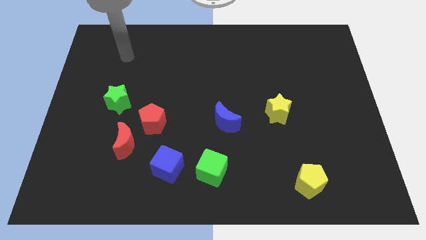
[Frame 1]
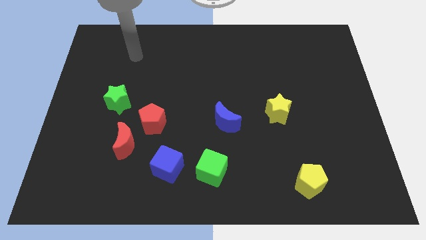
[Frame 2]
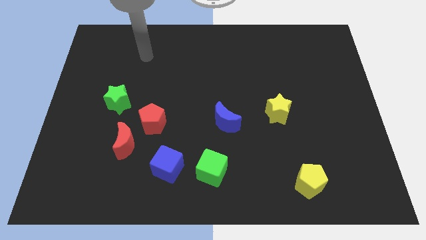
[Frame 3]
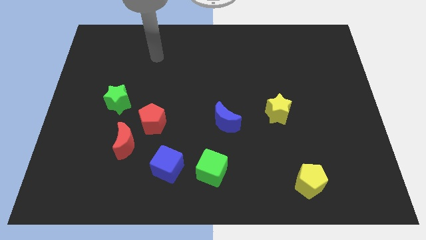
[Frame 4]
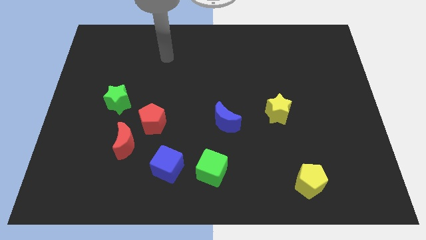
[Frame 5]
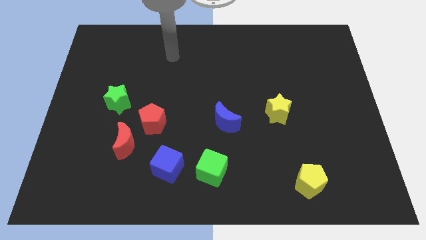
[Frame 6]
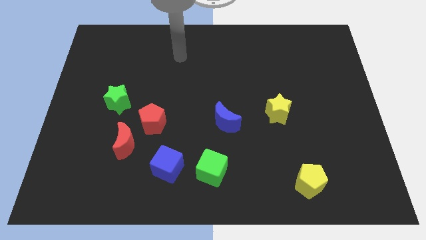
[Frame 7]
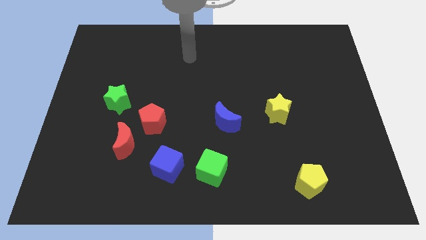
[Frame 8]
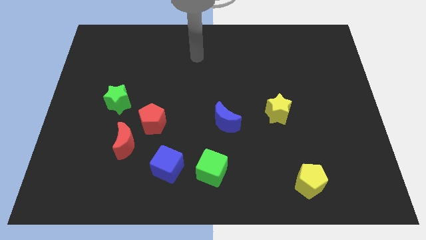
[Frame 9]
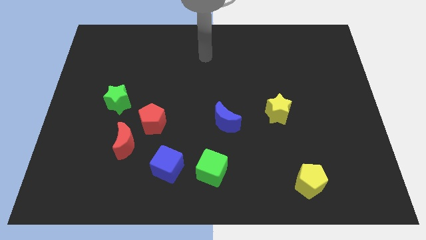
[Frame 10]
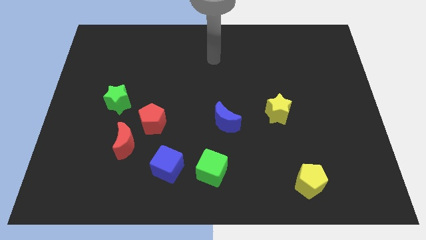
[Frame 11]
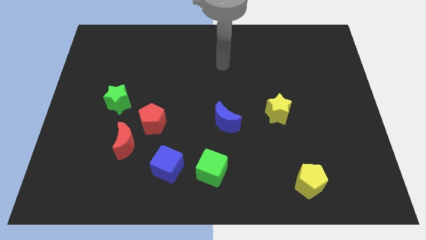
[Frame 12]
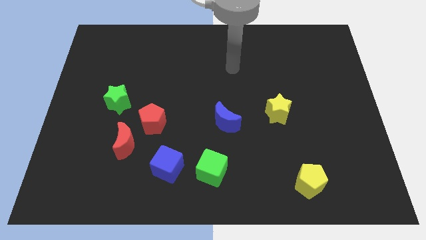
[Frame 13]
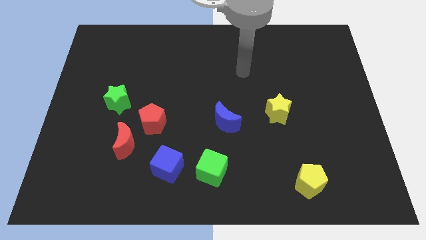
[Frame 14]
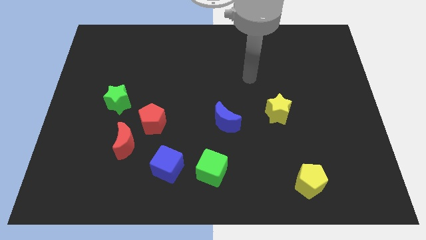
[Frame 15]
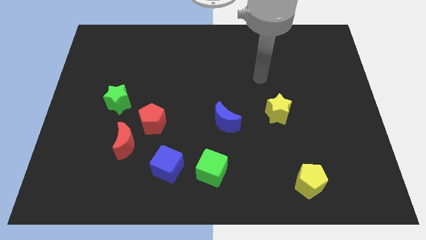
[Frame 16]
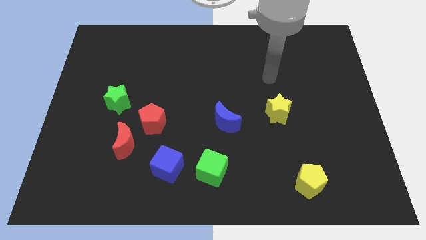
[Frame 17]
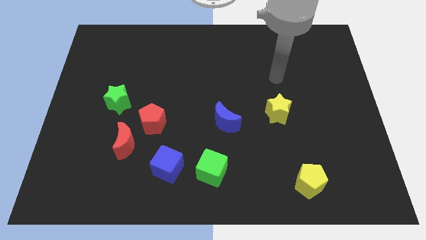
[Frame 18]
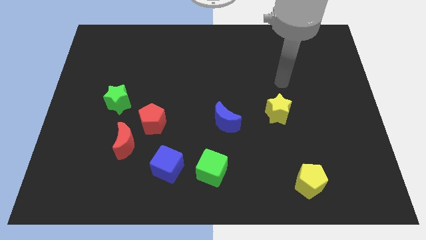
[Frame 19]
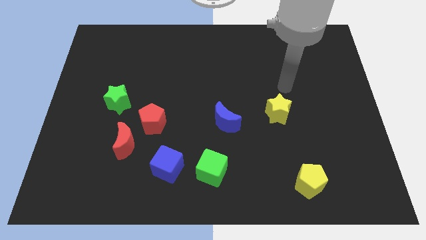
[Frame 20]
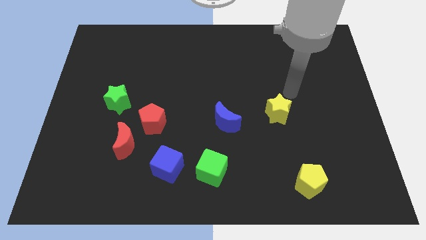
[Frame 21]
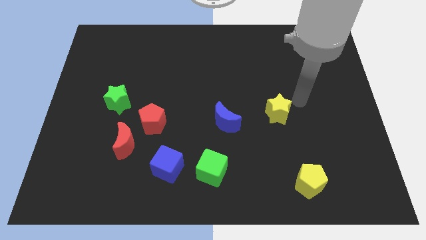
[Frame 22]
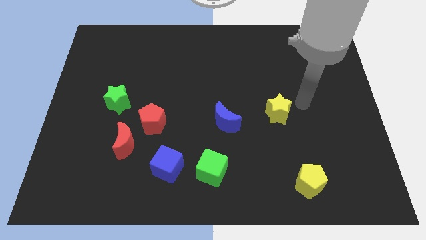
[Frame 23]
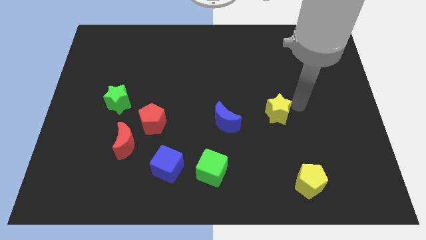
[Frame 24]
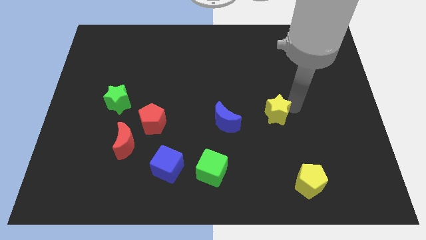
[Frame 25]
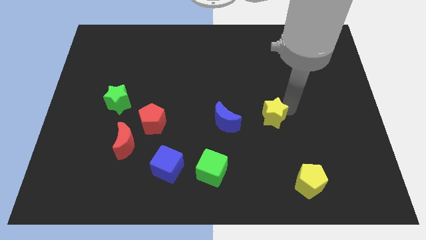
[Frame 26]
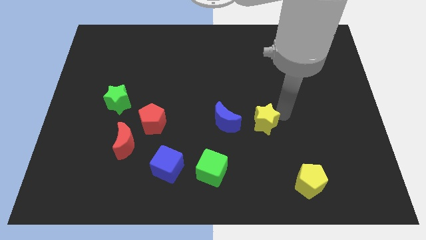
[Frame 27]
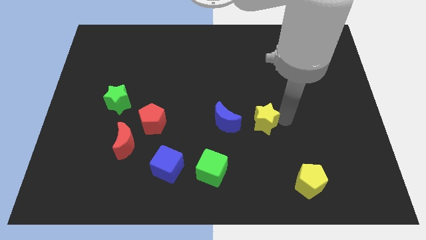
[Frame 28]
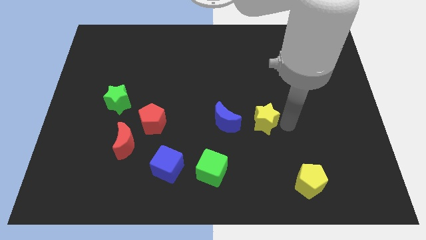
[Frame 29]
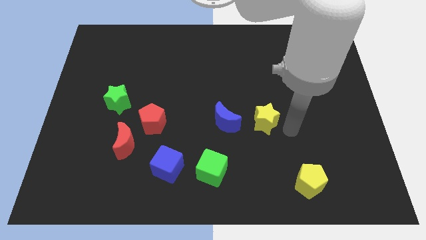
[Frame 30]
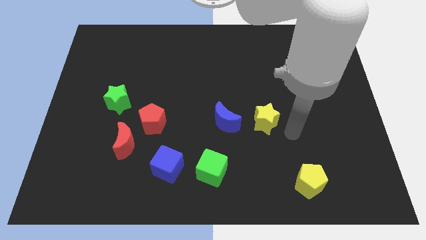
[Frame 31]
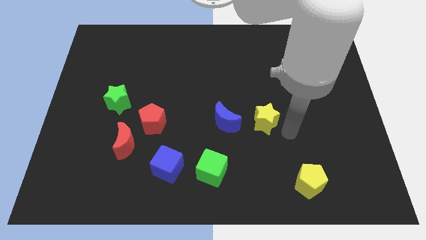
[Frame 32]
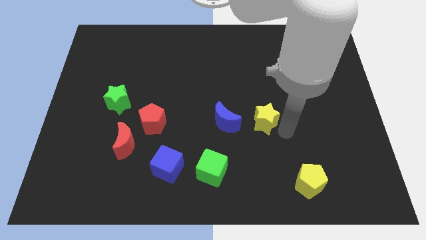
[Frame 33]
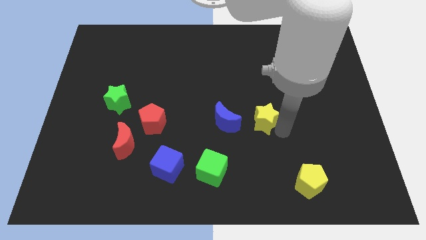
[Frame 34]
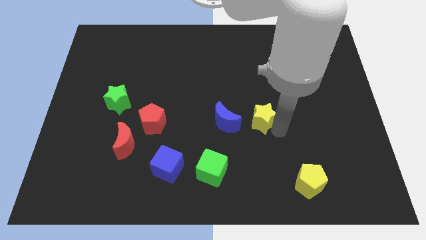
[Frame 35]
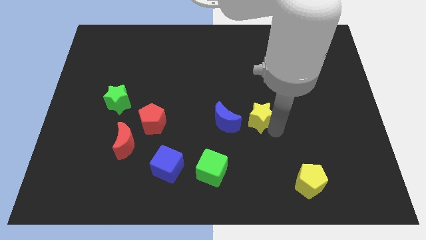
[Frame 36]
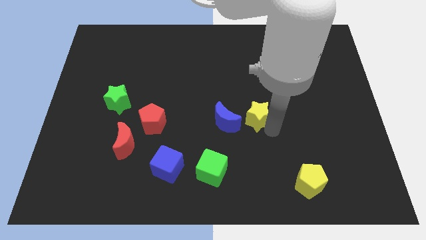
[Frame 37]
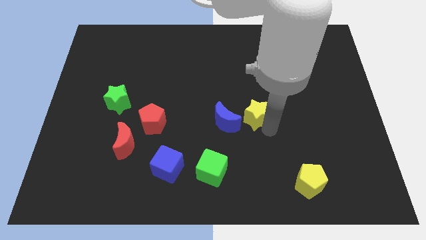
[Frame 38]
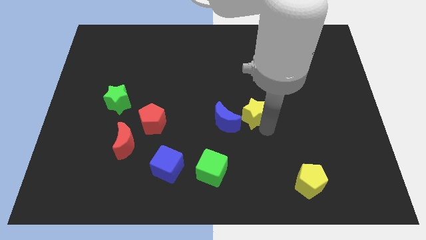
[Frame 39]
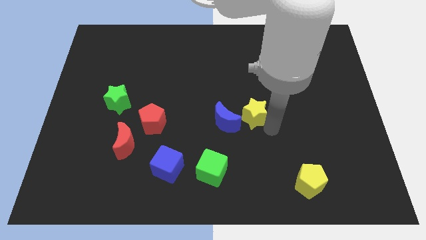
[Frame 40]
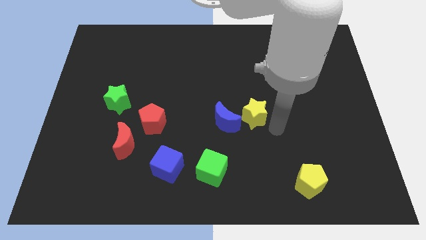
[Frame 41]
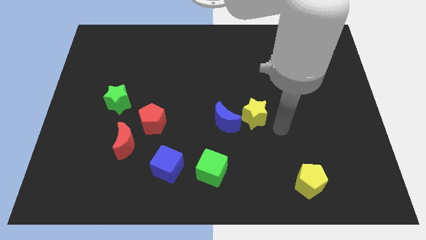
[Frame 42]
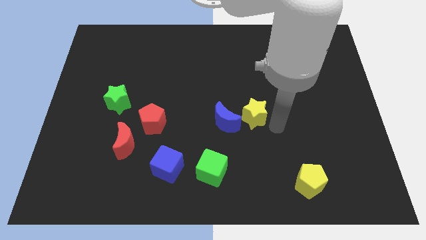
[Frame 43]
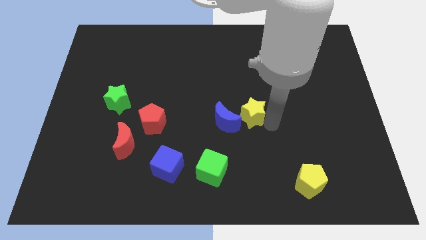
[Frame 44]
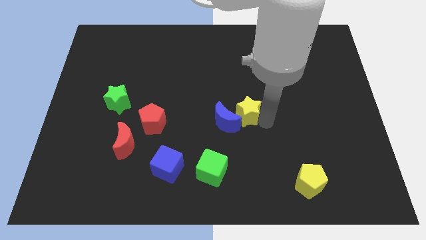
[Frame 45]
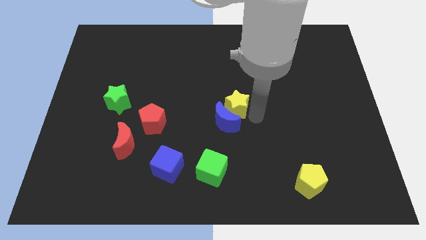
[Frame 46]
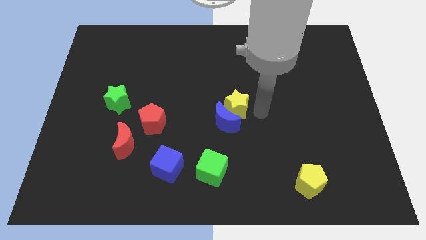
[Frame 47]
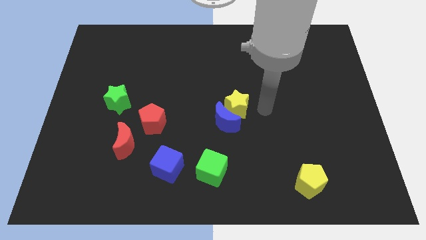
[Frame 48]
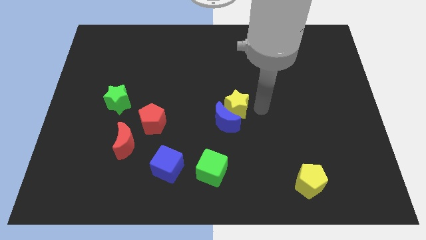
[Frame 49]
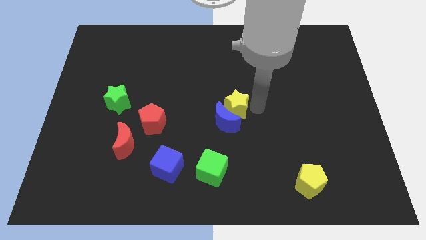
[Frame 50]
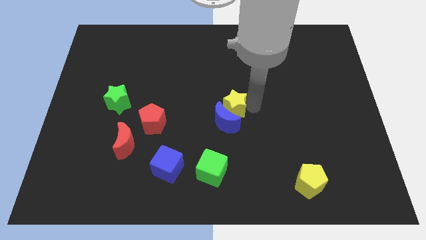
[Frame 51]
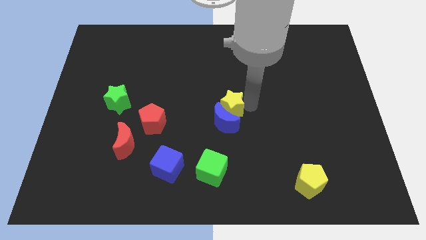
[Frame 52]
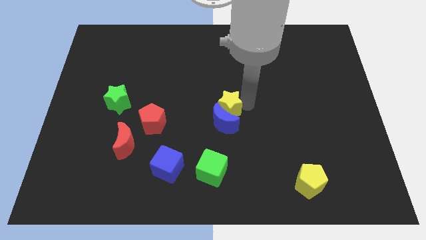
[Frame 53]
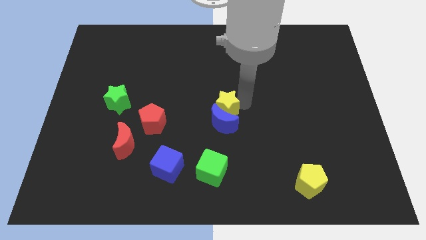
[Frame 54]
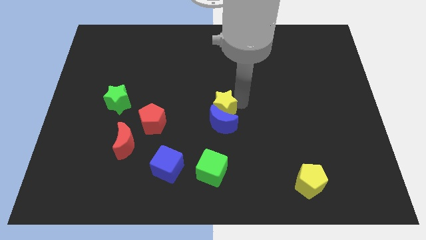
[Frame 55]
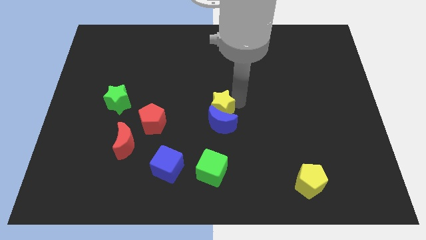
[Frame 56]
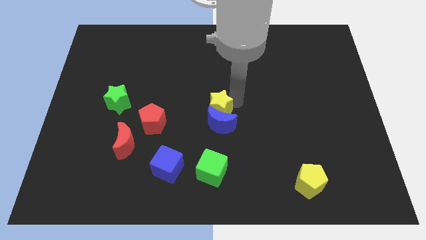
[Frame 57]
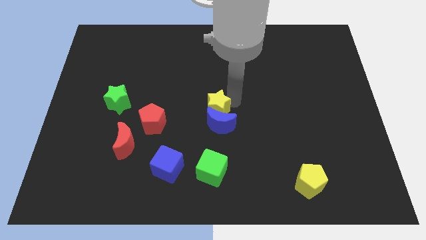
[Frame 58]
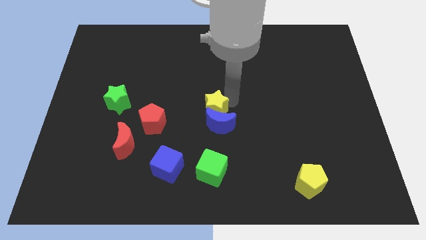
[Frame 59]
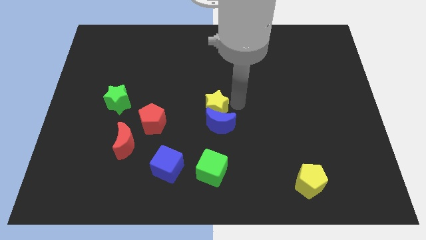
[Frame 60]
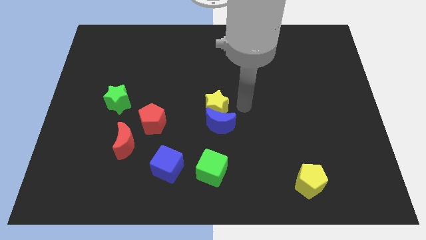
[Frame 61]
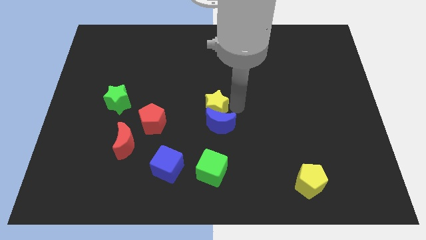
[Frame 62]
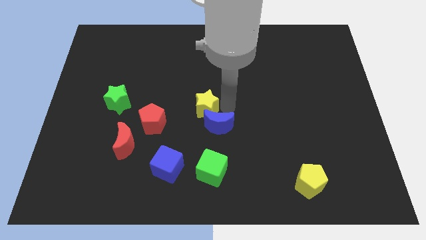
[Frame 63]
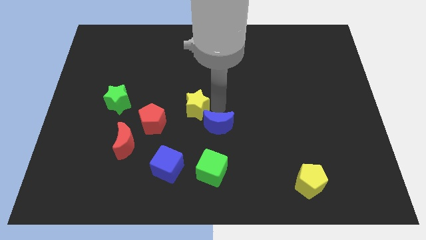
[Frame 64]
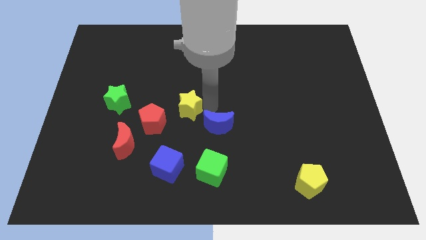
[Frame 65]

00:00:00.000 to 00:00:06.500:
push the yellow star to the left

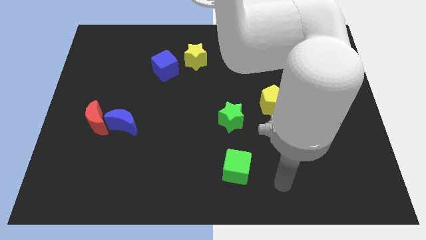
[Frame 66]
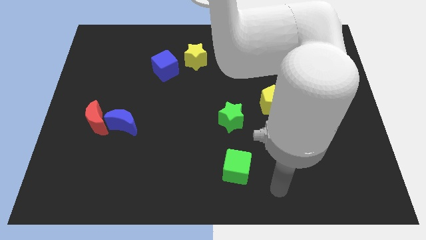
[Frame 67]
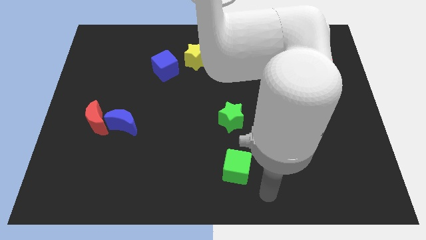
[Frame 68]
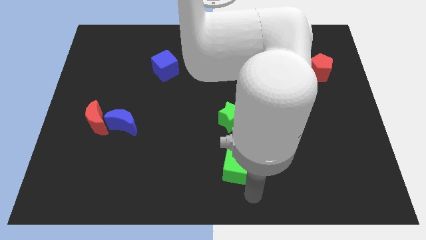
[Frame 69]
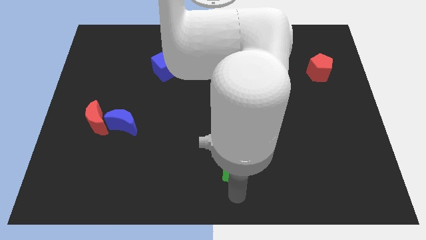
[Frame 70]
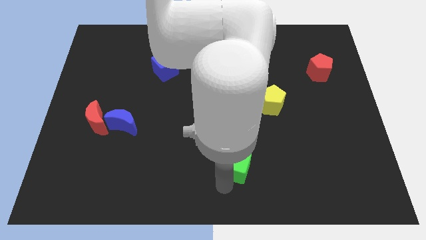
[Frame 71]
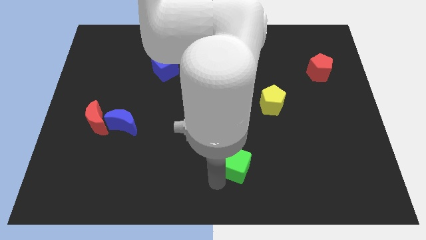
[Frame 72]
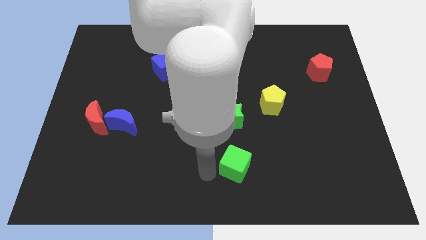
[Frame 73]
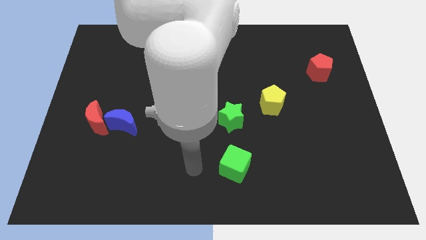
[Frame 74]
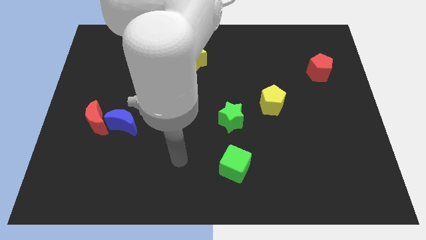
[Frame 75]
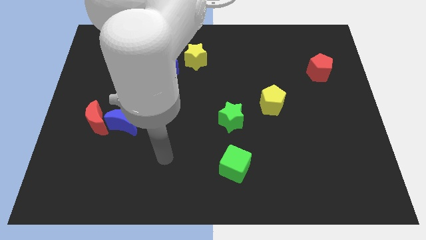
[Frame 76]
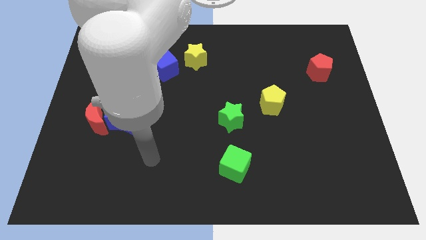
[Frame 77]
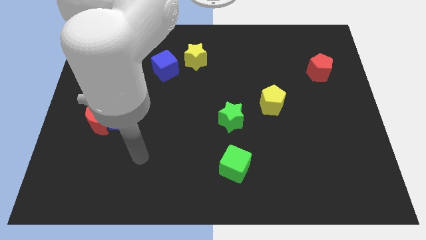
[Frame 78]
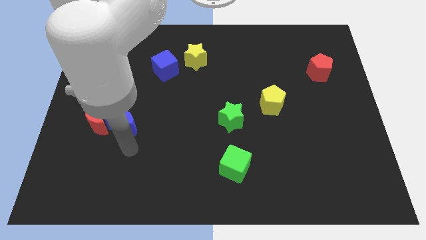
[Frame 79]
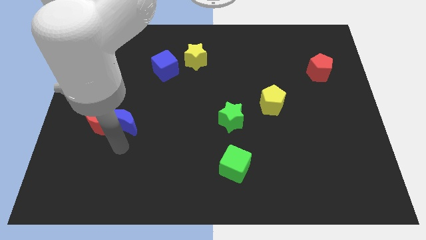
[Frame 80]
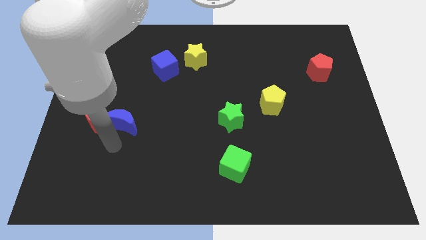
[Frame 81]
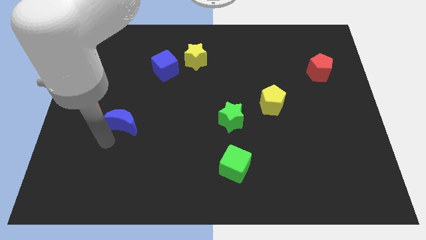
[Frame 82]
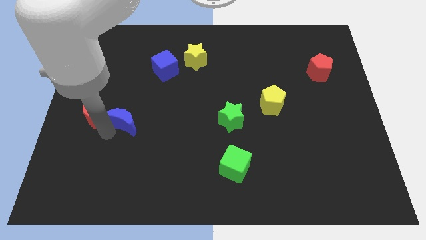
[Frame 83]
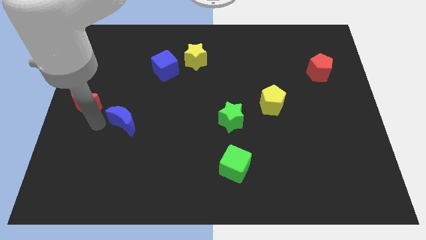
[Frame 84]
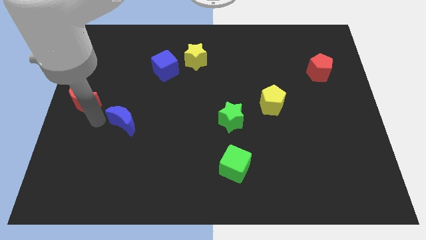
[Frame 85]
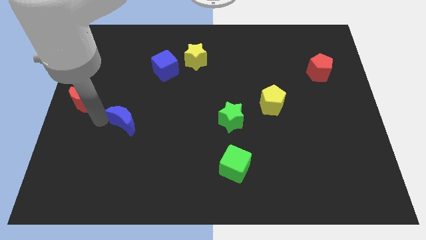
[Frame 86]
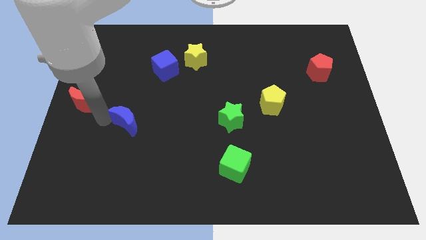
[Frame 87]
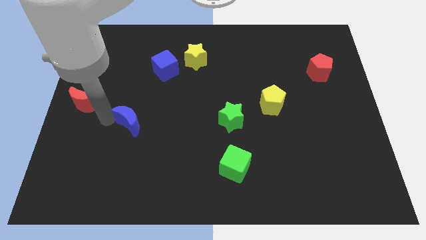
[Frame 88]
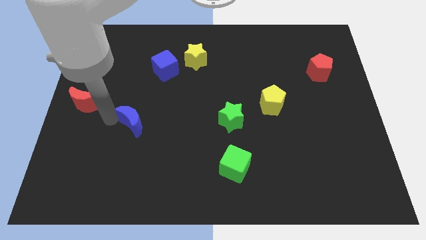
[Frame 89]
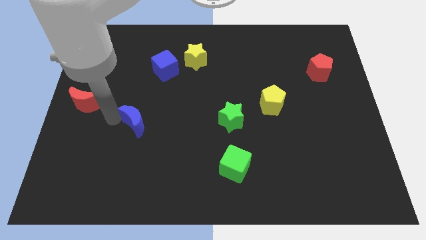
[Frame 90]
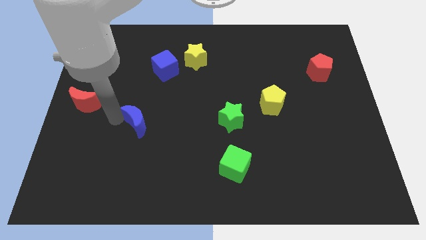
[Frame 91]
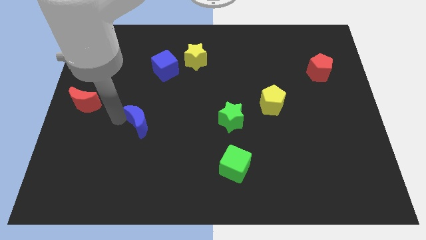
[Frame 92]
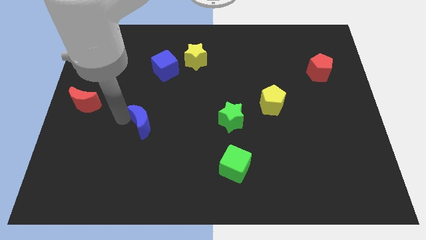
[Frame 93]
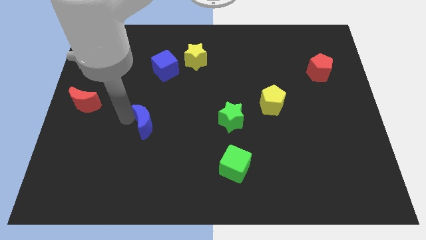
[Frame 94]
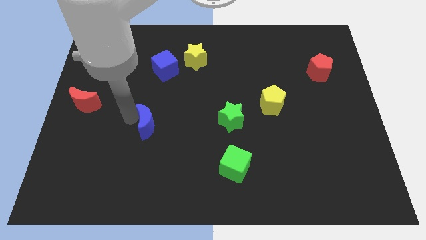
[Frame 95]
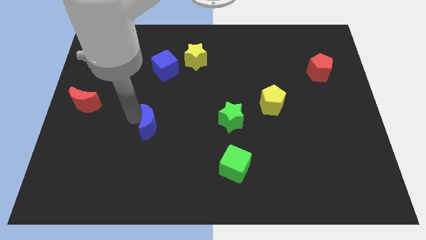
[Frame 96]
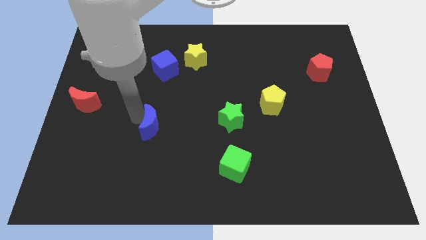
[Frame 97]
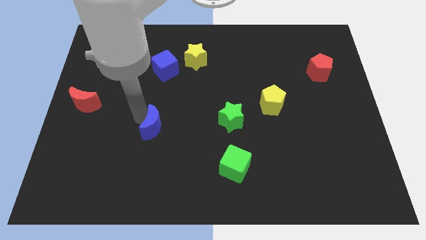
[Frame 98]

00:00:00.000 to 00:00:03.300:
move the blue moon a little right
